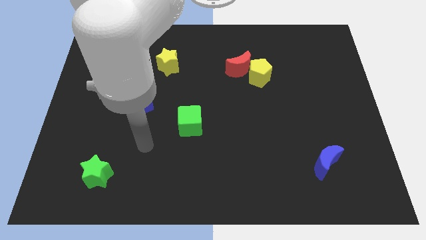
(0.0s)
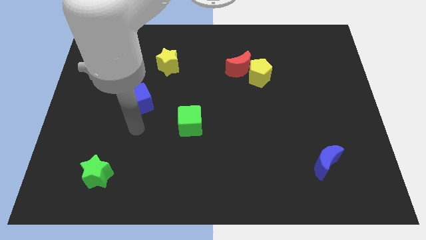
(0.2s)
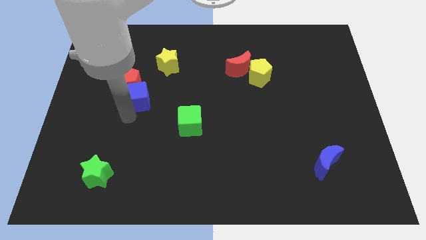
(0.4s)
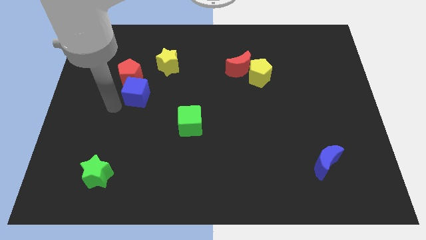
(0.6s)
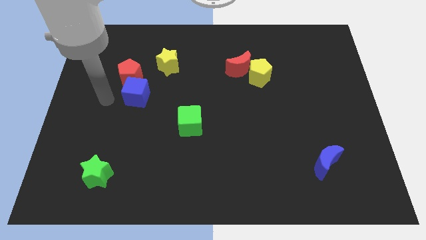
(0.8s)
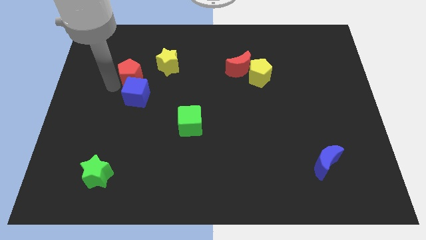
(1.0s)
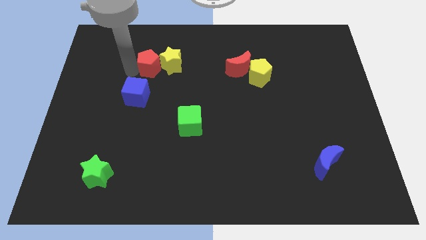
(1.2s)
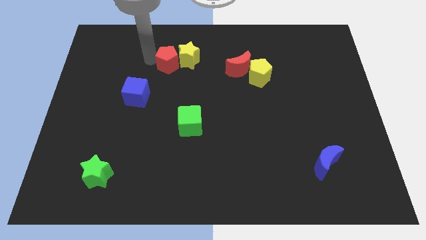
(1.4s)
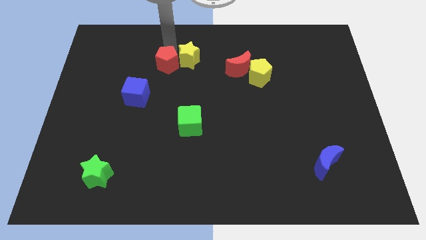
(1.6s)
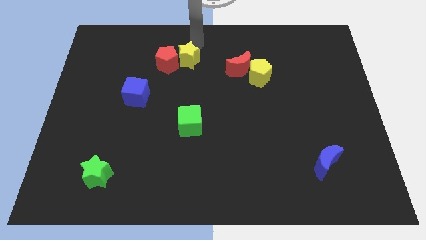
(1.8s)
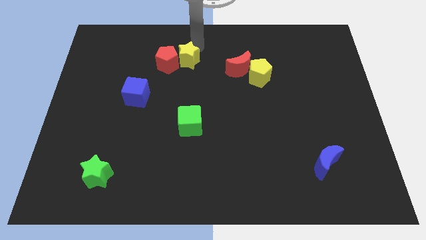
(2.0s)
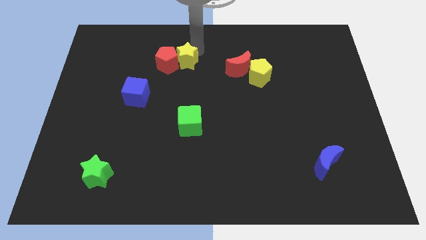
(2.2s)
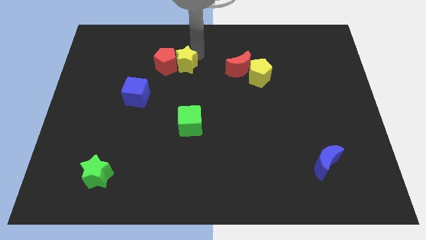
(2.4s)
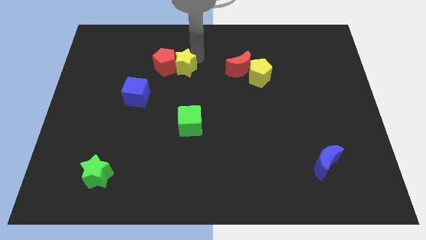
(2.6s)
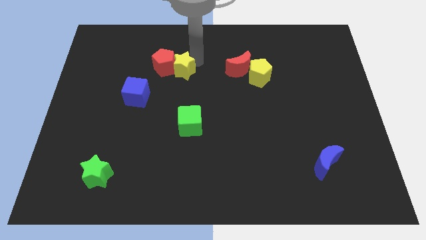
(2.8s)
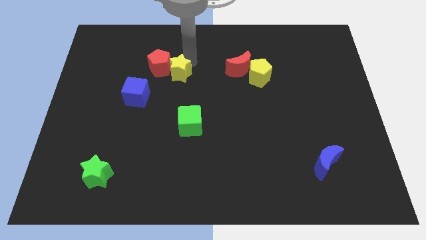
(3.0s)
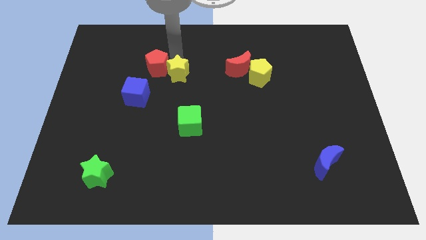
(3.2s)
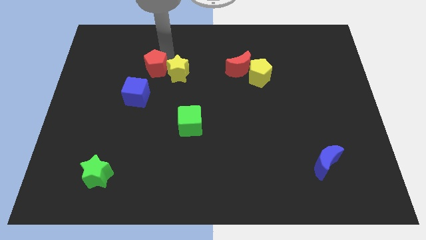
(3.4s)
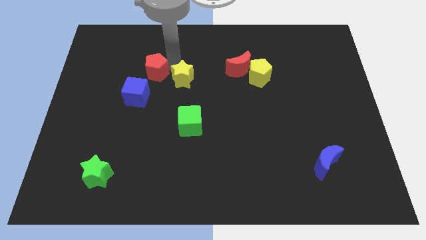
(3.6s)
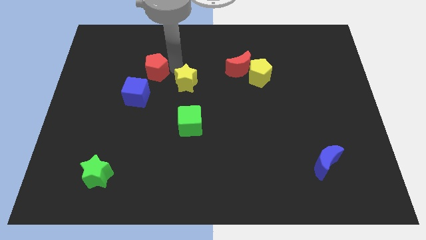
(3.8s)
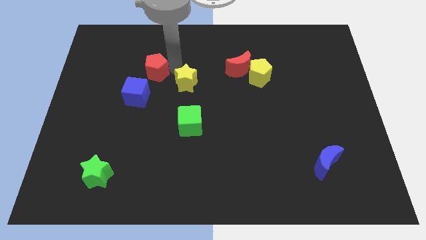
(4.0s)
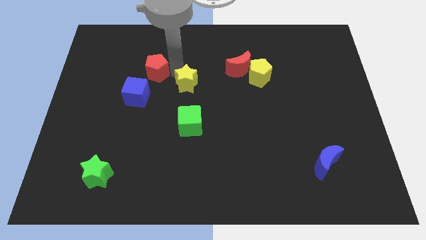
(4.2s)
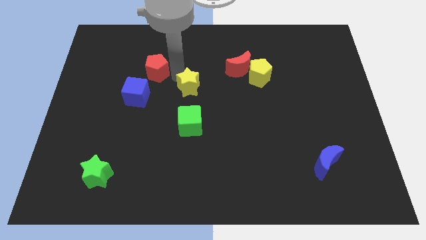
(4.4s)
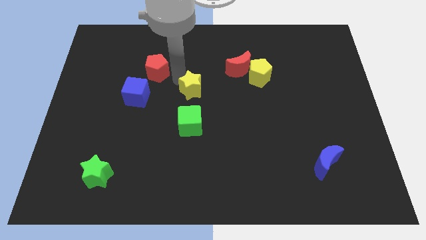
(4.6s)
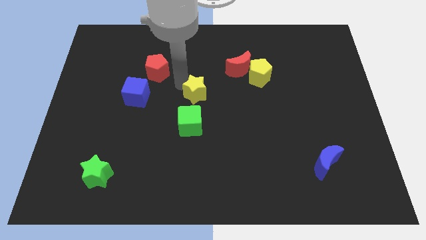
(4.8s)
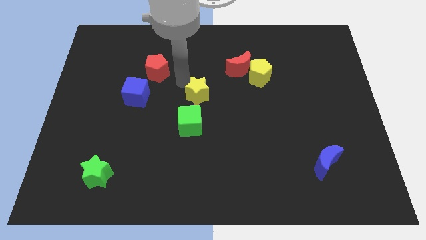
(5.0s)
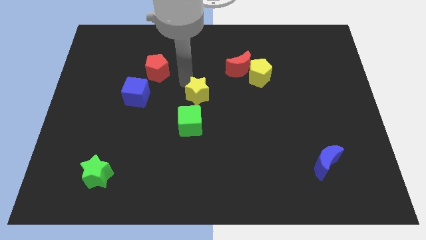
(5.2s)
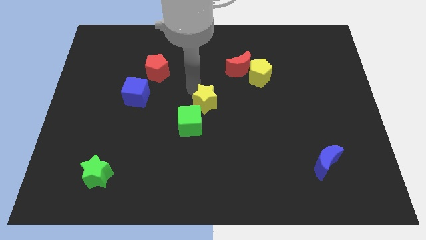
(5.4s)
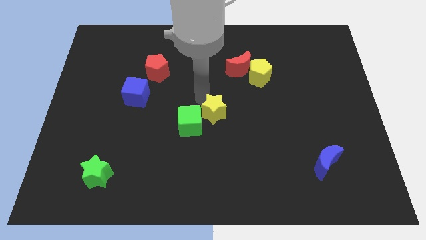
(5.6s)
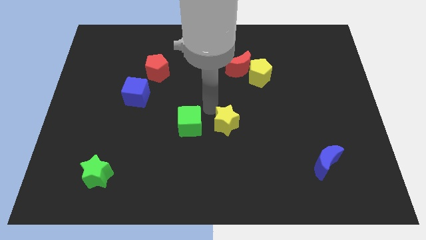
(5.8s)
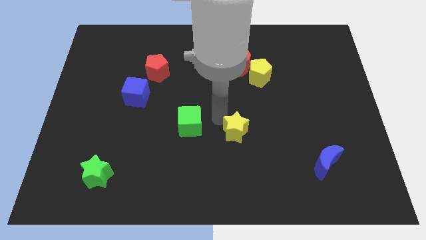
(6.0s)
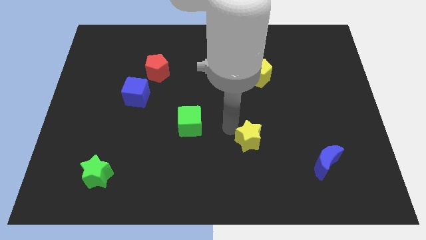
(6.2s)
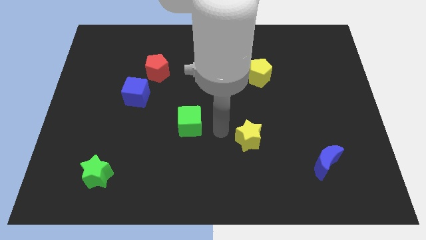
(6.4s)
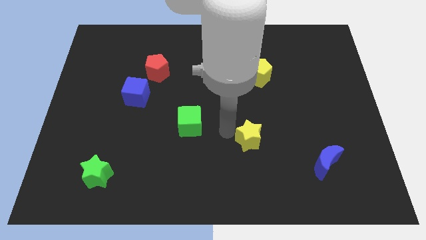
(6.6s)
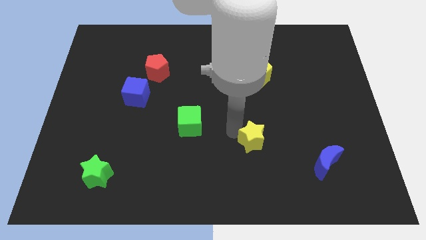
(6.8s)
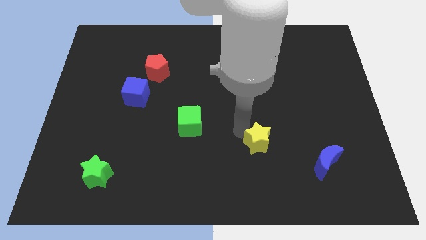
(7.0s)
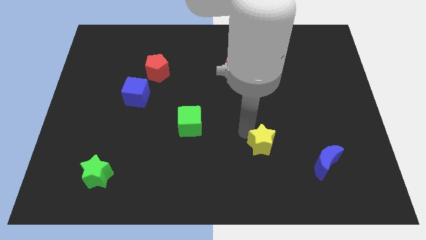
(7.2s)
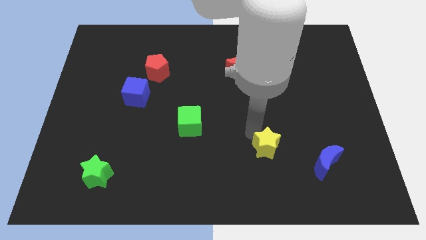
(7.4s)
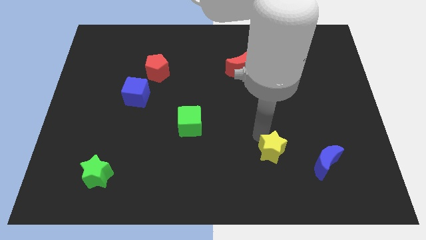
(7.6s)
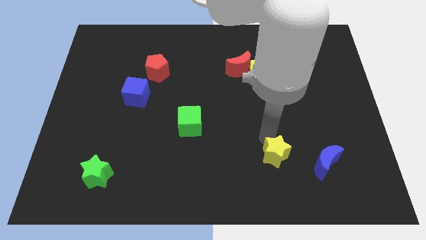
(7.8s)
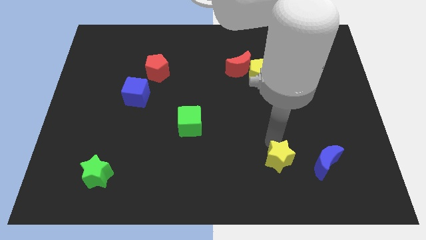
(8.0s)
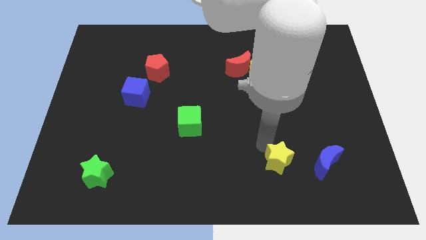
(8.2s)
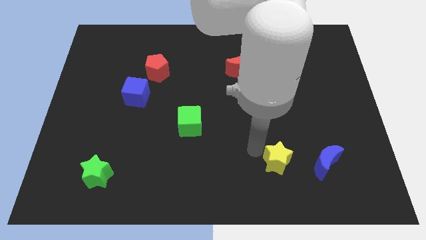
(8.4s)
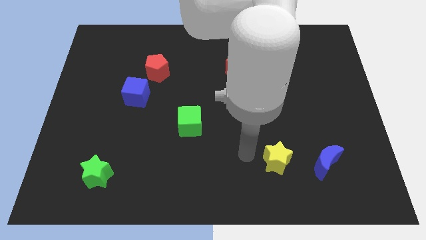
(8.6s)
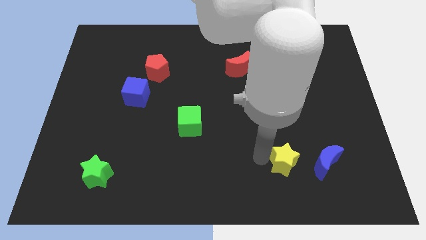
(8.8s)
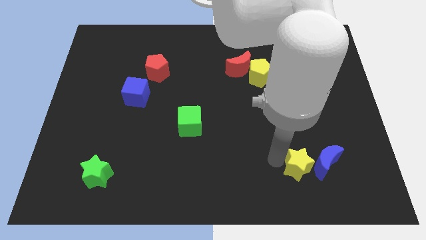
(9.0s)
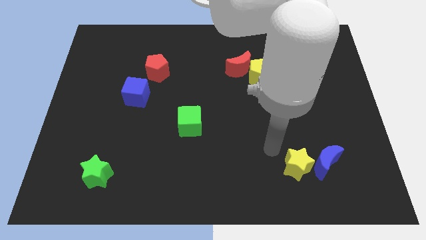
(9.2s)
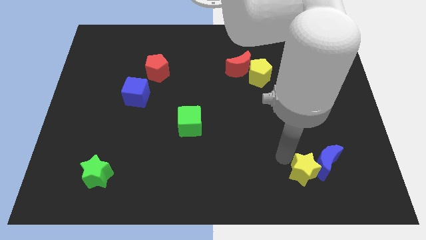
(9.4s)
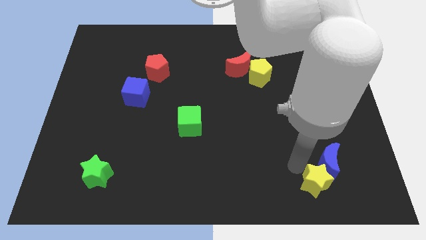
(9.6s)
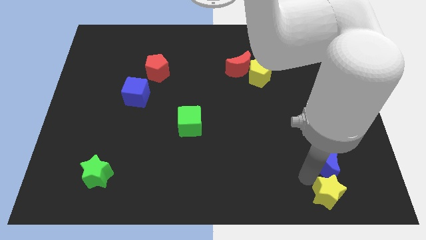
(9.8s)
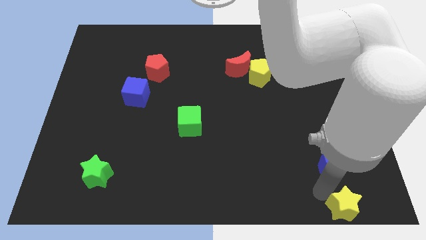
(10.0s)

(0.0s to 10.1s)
push the yellow star to the bottom right of the board

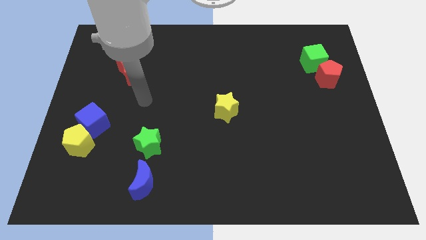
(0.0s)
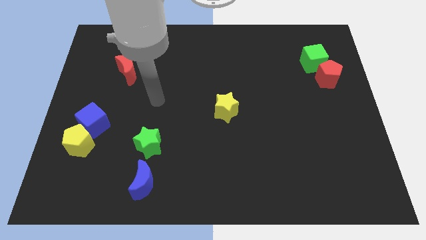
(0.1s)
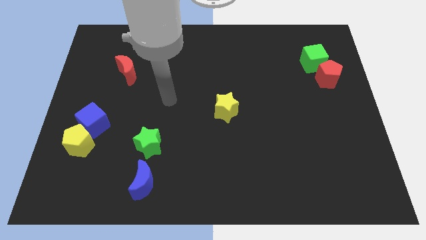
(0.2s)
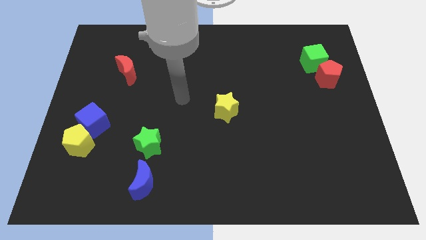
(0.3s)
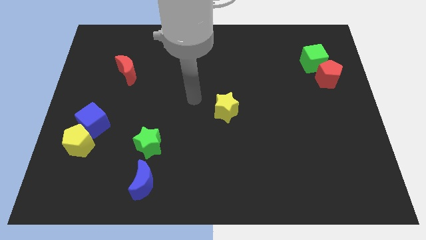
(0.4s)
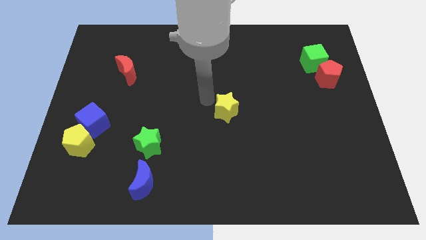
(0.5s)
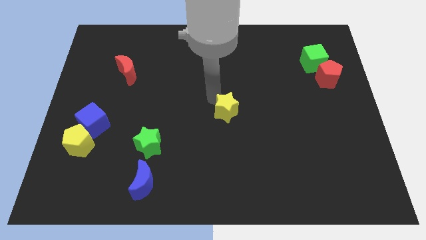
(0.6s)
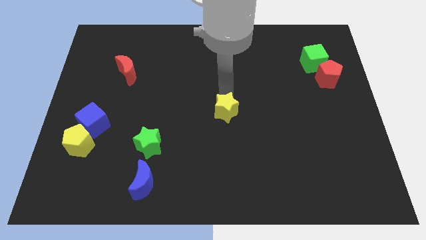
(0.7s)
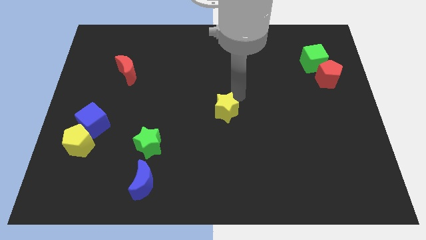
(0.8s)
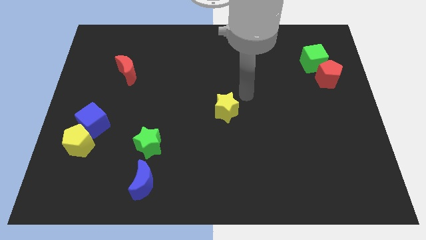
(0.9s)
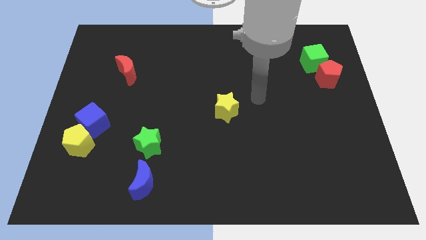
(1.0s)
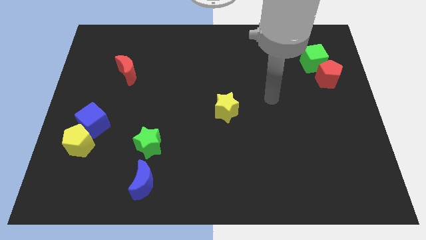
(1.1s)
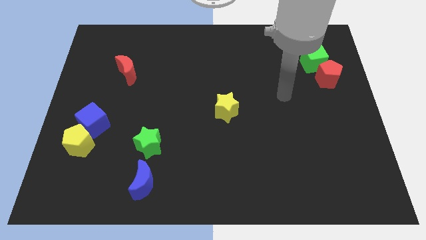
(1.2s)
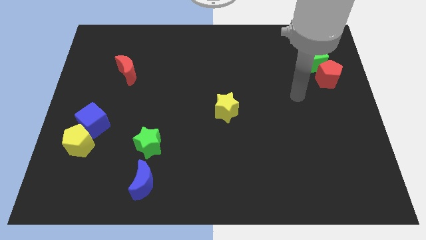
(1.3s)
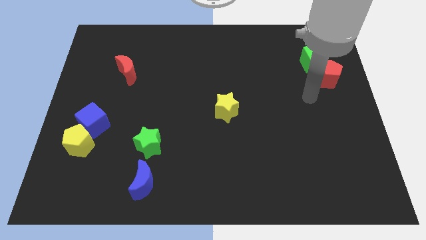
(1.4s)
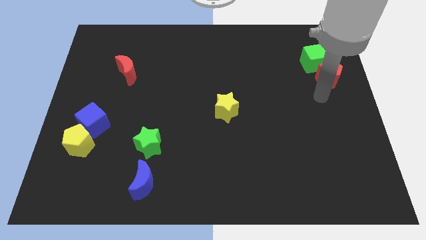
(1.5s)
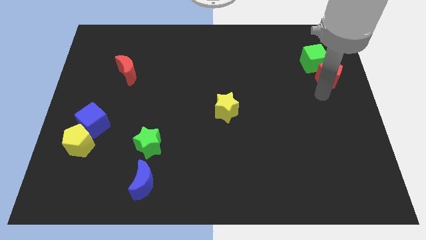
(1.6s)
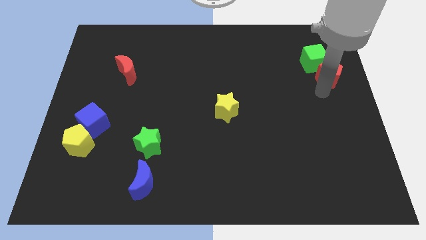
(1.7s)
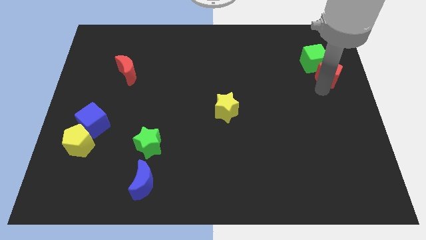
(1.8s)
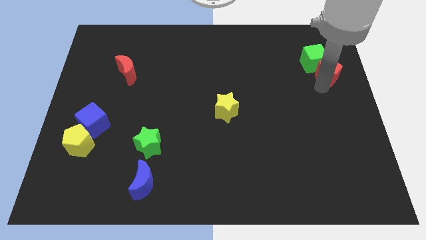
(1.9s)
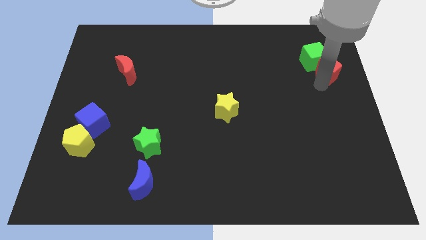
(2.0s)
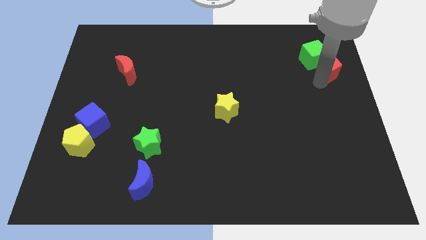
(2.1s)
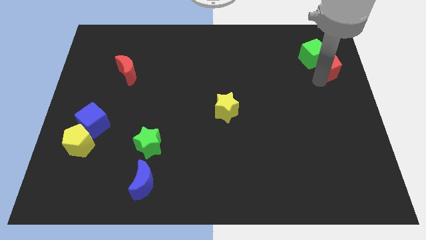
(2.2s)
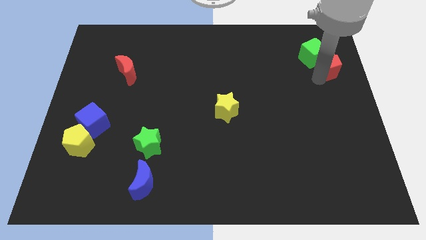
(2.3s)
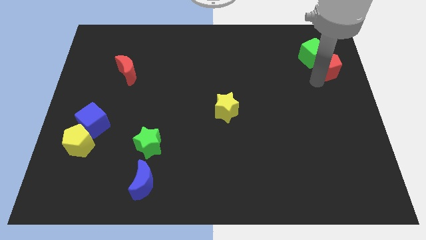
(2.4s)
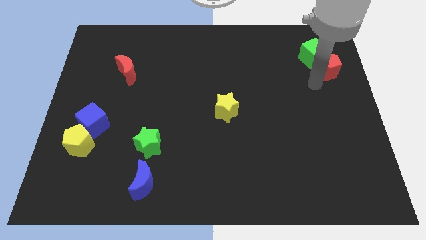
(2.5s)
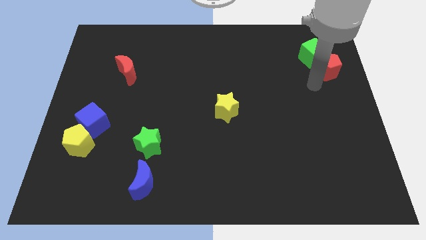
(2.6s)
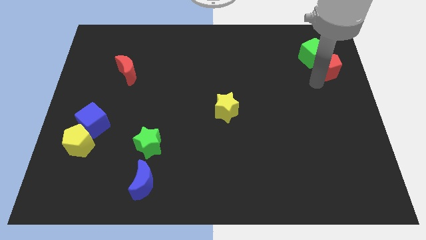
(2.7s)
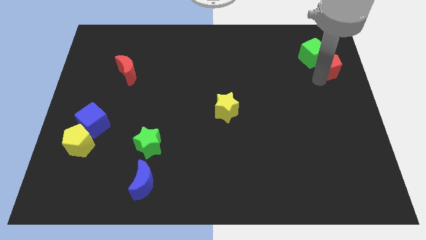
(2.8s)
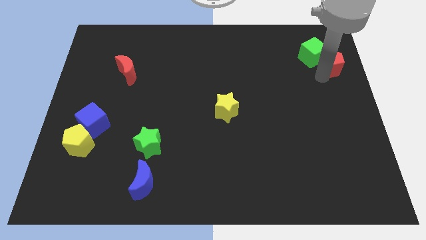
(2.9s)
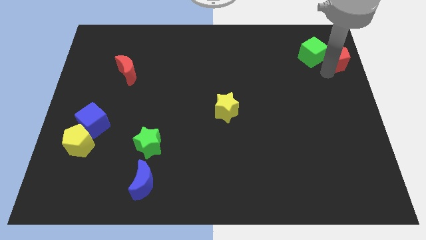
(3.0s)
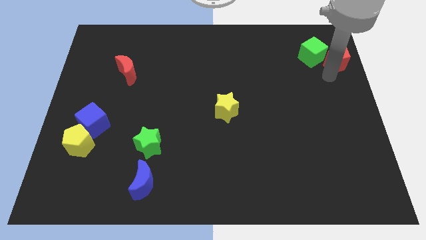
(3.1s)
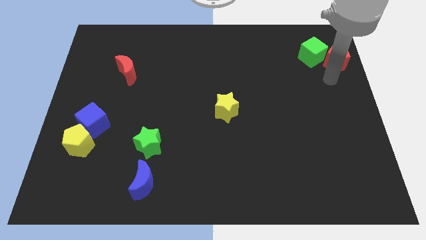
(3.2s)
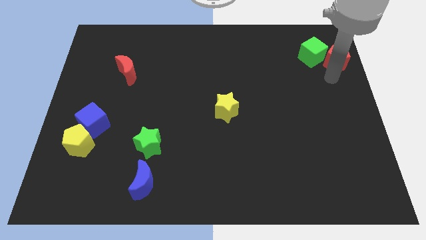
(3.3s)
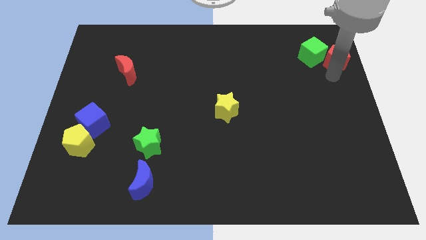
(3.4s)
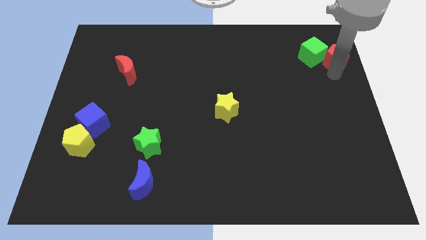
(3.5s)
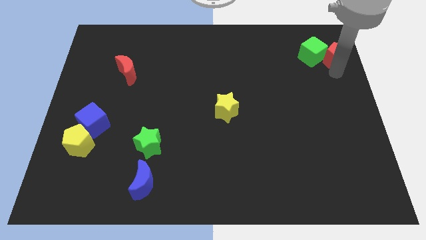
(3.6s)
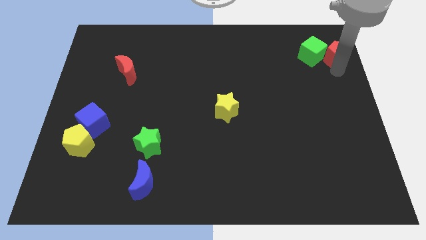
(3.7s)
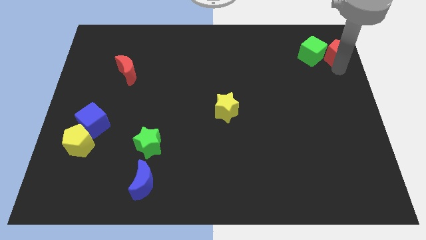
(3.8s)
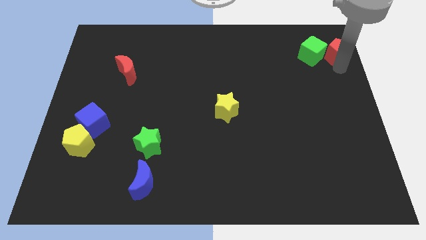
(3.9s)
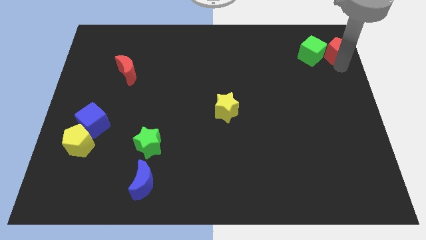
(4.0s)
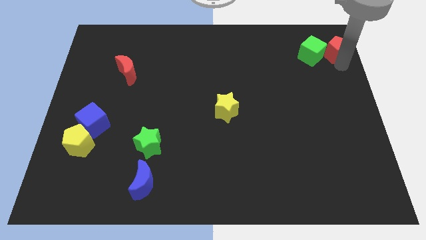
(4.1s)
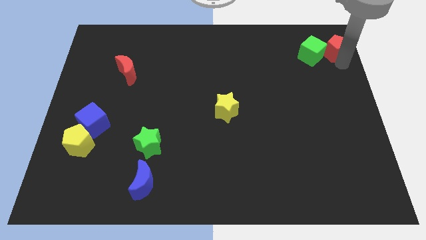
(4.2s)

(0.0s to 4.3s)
put the red pentagon to the upper right corner
